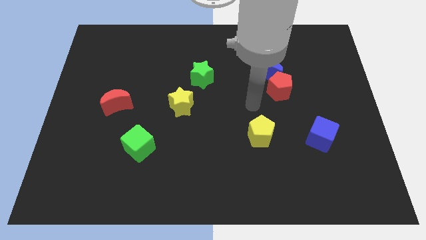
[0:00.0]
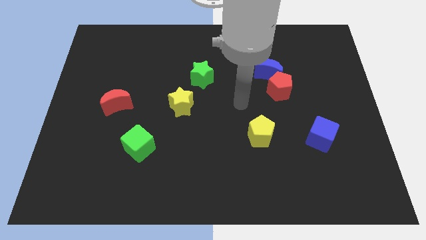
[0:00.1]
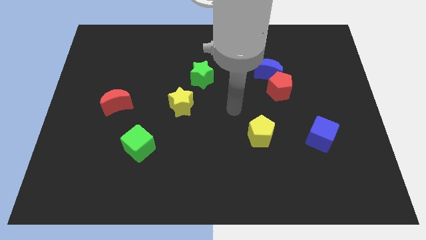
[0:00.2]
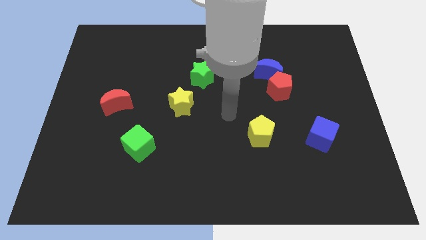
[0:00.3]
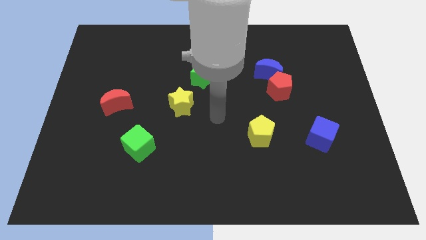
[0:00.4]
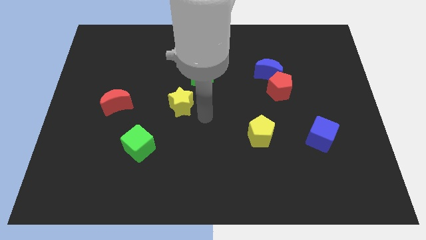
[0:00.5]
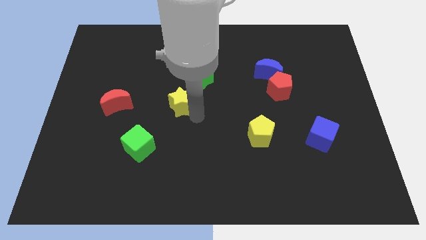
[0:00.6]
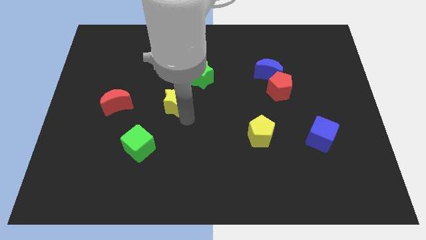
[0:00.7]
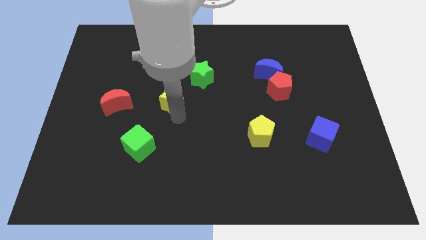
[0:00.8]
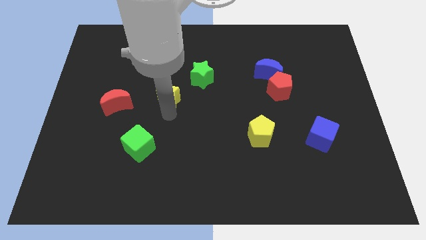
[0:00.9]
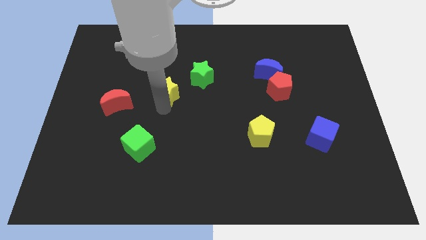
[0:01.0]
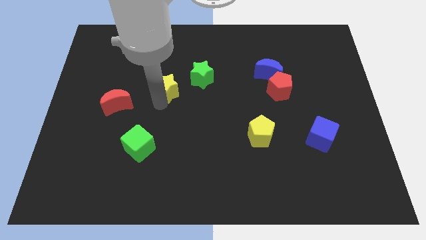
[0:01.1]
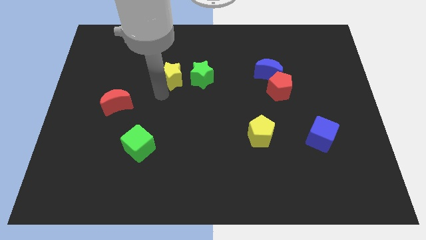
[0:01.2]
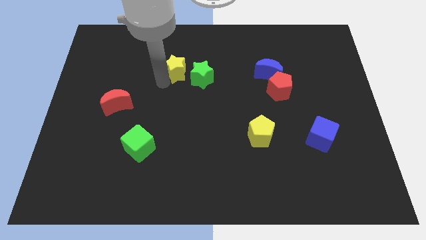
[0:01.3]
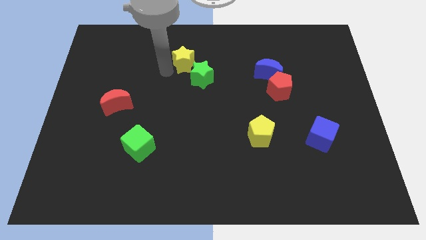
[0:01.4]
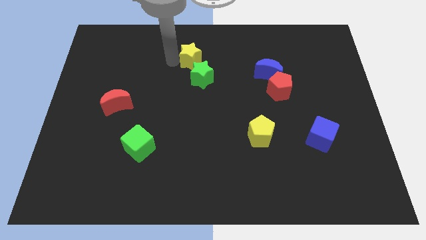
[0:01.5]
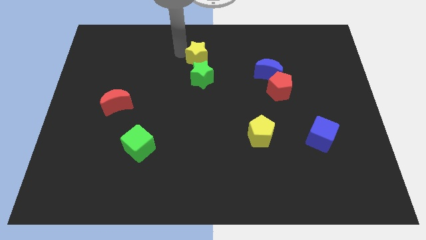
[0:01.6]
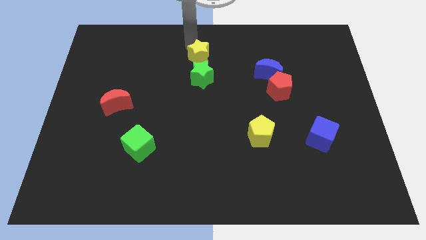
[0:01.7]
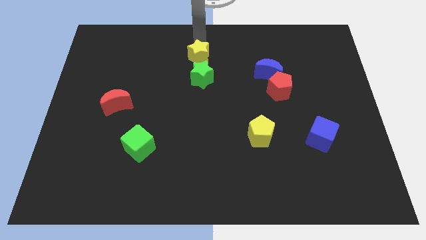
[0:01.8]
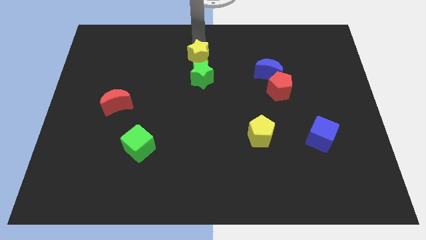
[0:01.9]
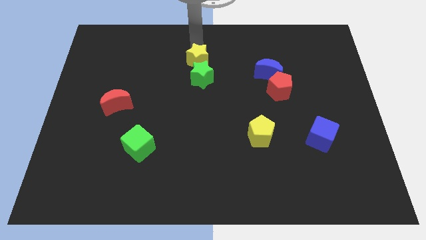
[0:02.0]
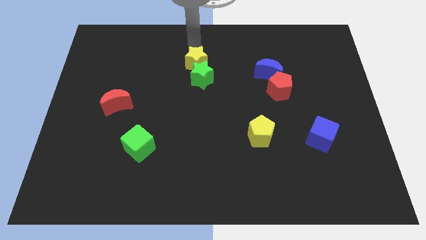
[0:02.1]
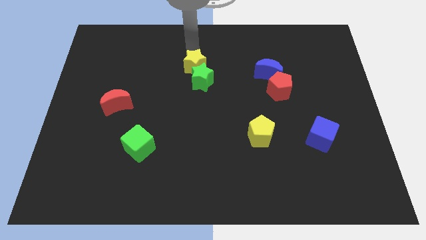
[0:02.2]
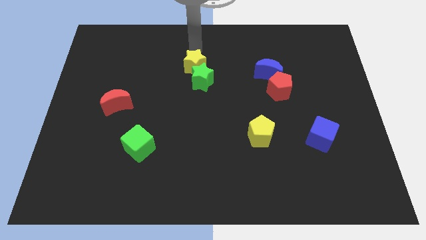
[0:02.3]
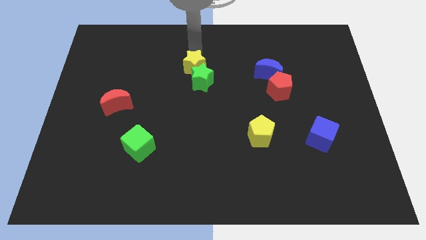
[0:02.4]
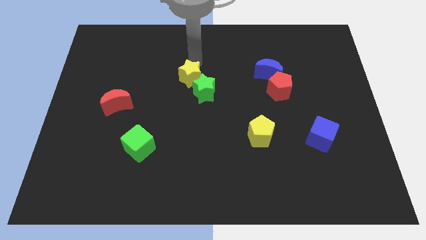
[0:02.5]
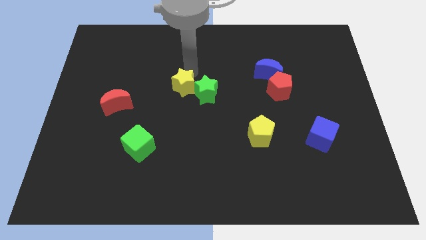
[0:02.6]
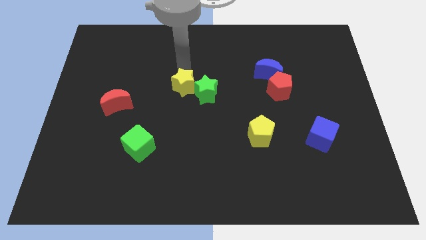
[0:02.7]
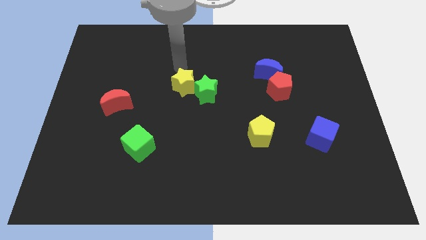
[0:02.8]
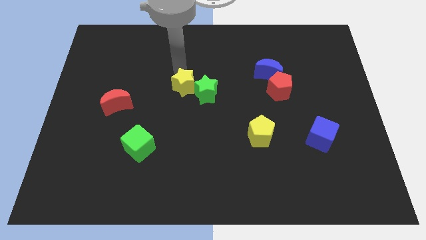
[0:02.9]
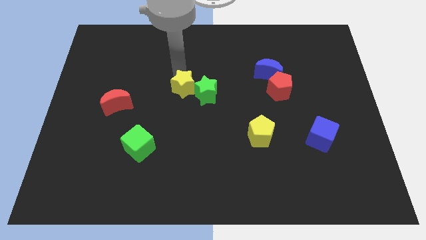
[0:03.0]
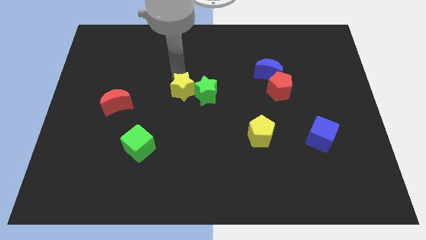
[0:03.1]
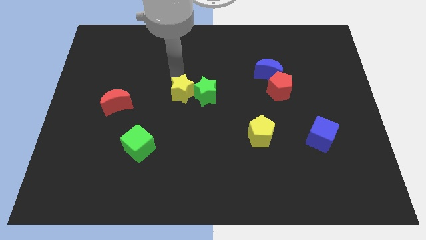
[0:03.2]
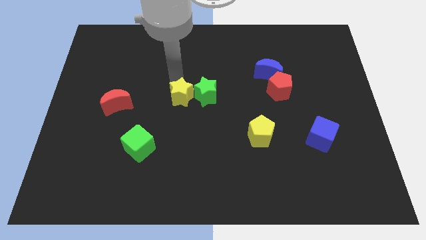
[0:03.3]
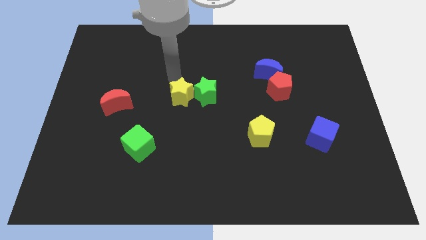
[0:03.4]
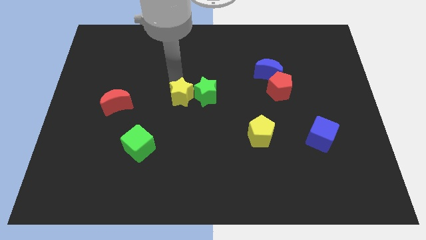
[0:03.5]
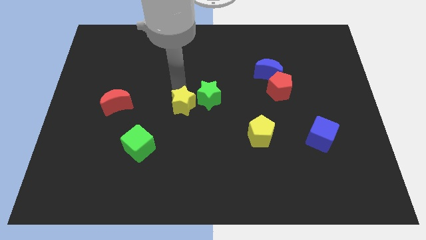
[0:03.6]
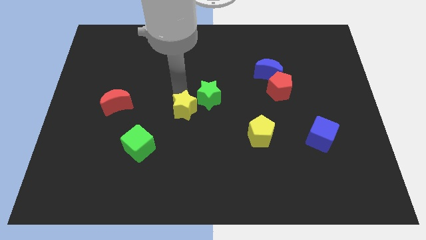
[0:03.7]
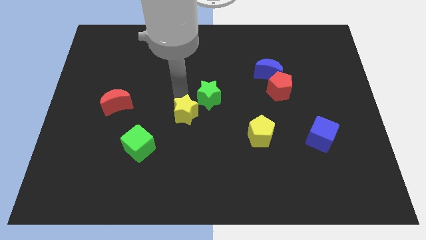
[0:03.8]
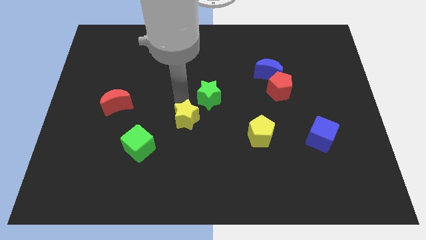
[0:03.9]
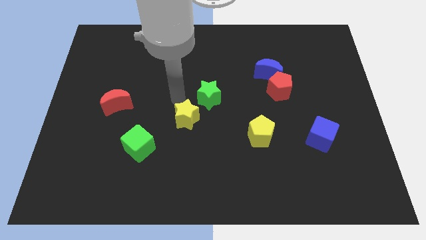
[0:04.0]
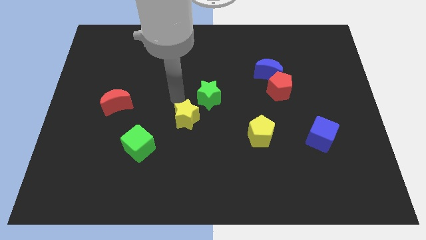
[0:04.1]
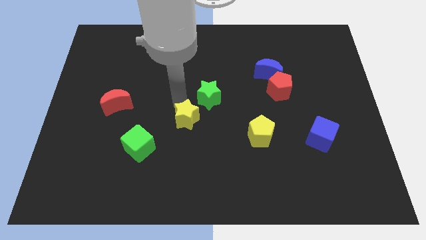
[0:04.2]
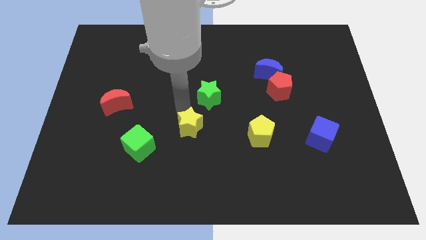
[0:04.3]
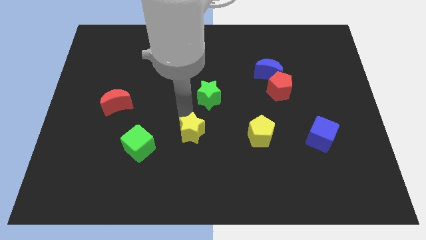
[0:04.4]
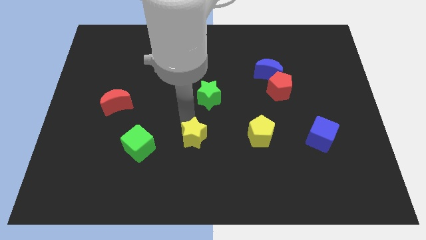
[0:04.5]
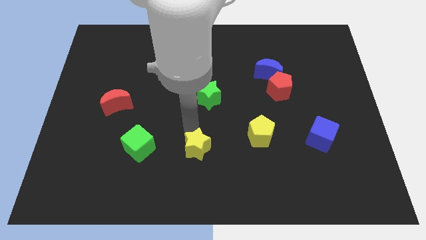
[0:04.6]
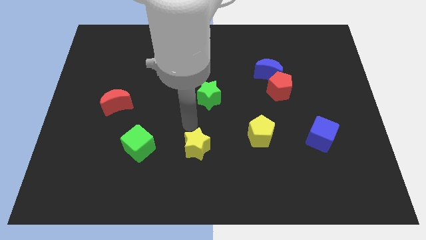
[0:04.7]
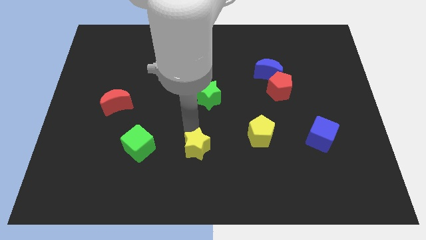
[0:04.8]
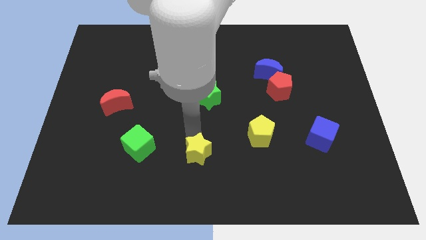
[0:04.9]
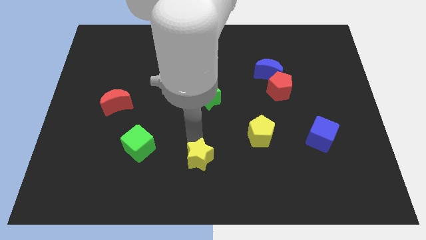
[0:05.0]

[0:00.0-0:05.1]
slide the yellow star to the bottom side

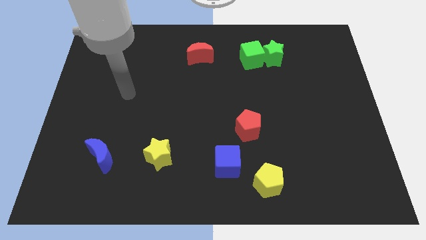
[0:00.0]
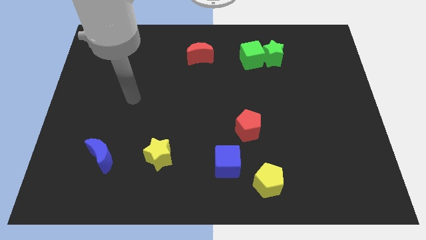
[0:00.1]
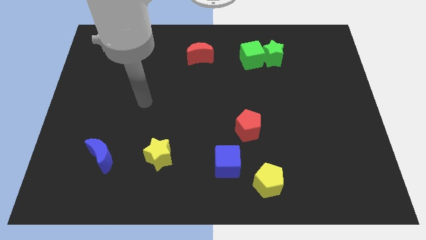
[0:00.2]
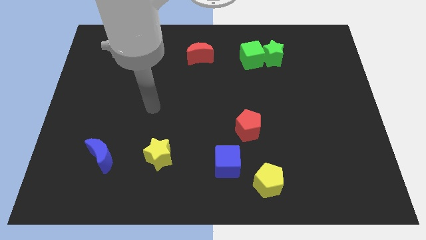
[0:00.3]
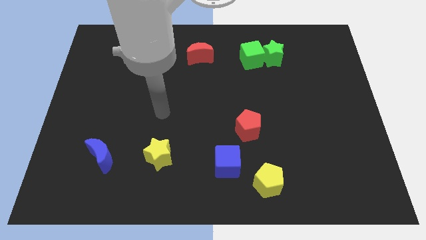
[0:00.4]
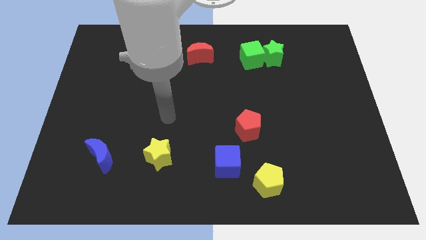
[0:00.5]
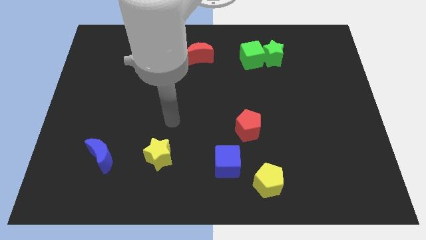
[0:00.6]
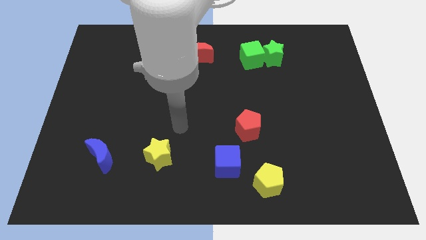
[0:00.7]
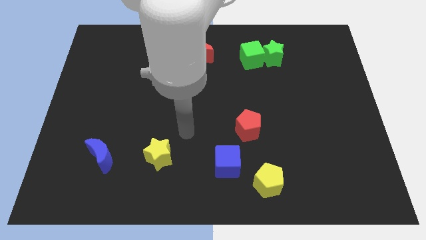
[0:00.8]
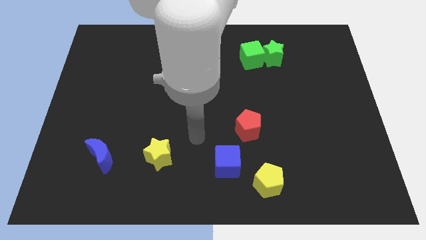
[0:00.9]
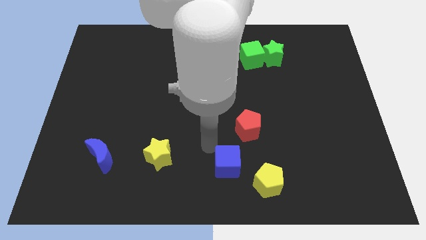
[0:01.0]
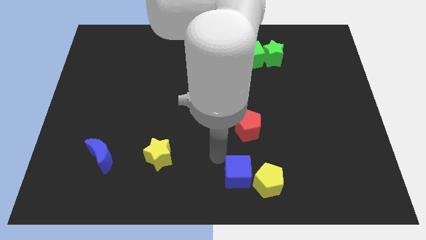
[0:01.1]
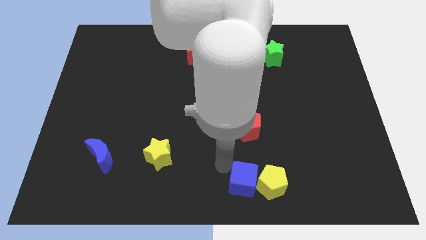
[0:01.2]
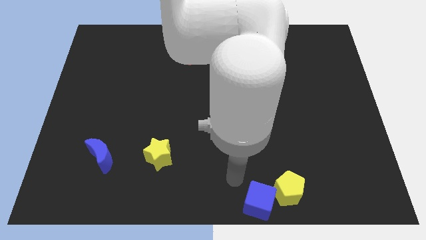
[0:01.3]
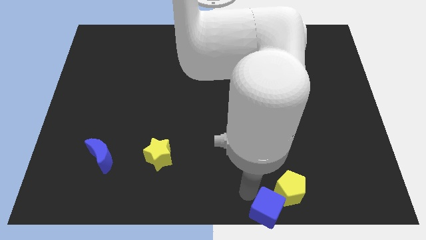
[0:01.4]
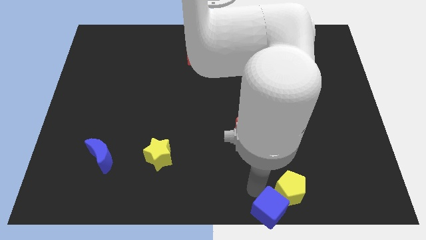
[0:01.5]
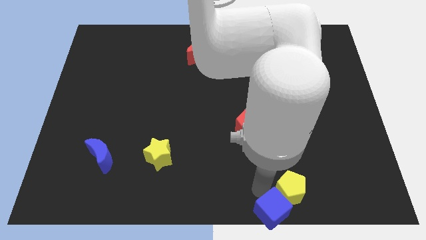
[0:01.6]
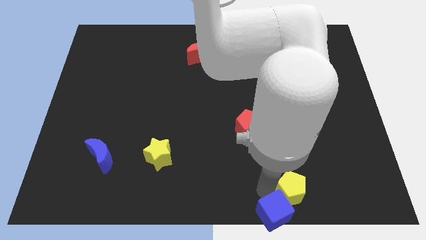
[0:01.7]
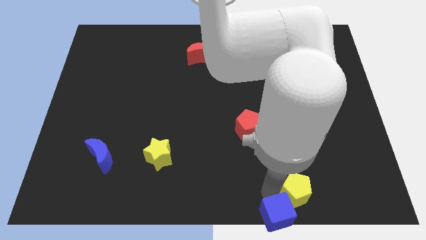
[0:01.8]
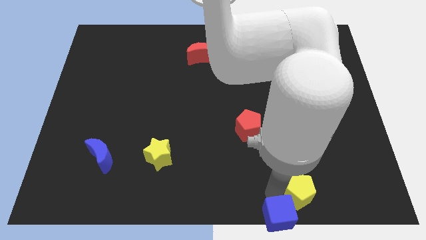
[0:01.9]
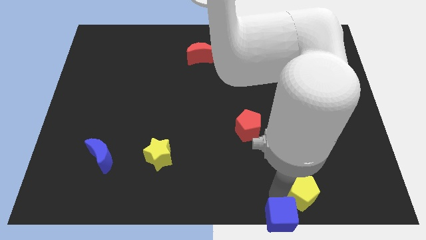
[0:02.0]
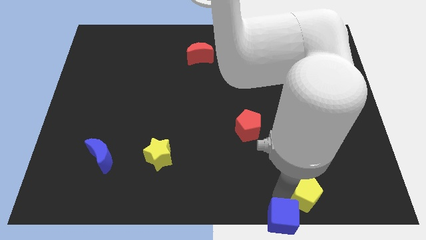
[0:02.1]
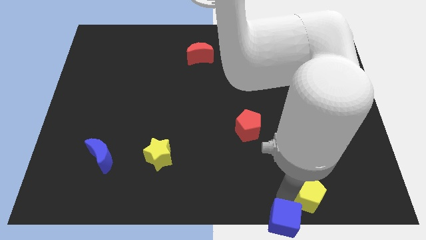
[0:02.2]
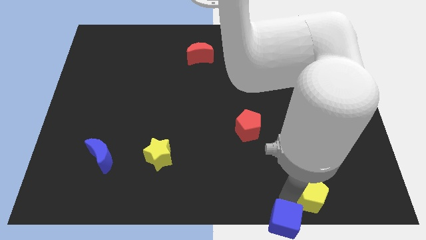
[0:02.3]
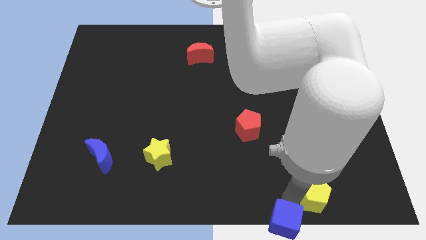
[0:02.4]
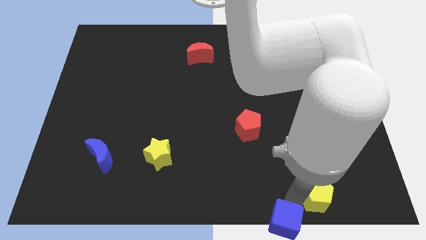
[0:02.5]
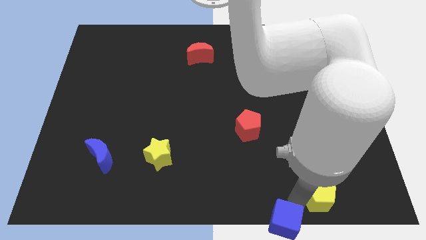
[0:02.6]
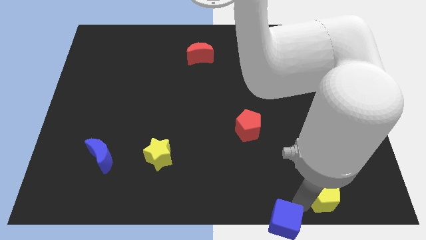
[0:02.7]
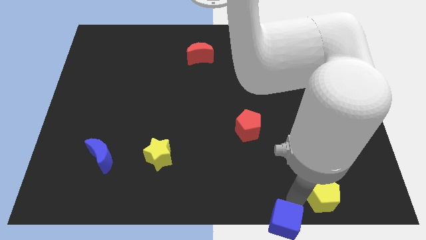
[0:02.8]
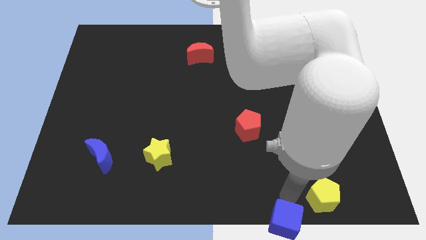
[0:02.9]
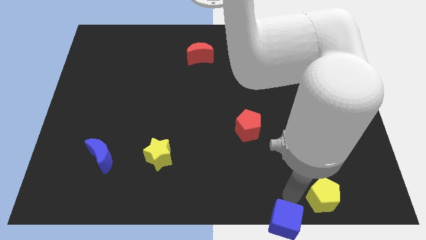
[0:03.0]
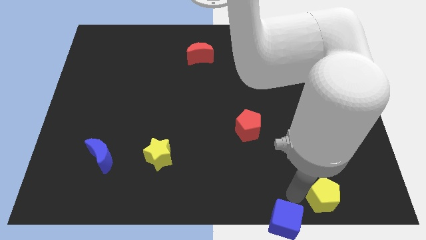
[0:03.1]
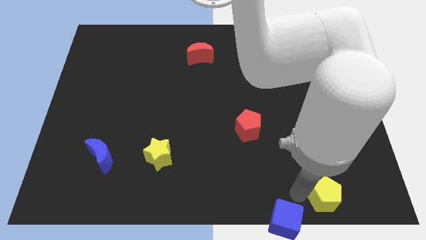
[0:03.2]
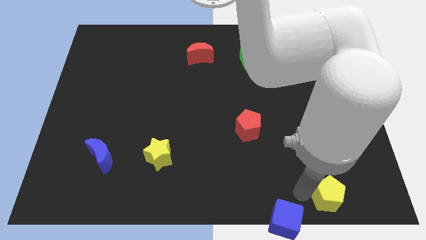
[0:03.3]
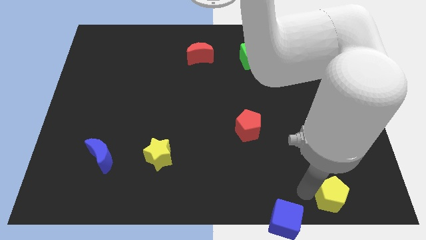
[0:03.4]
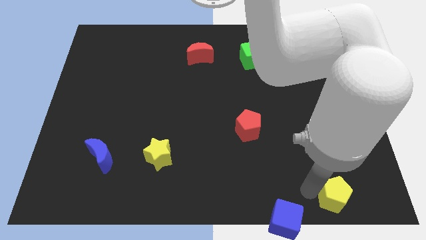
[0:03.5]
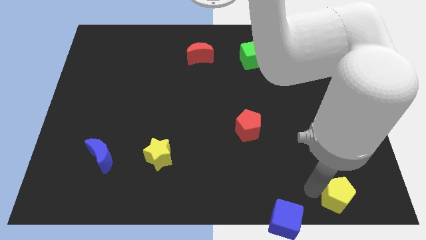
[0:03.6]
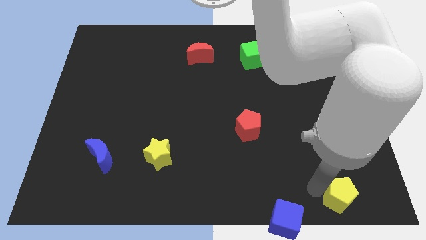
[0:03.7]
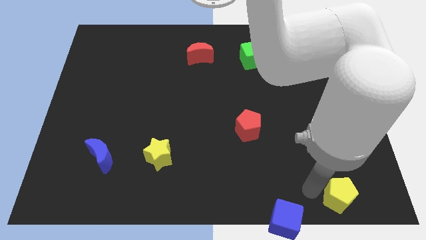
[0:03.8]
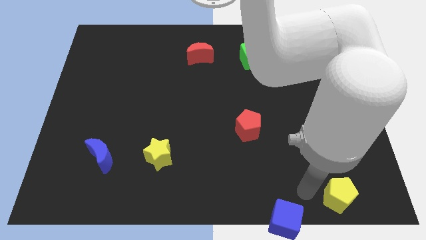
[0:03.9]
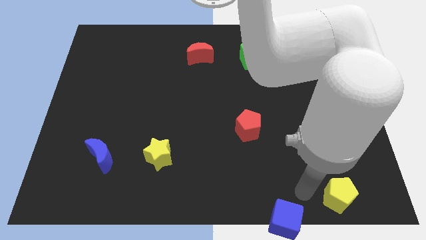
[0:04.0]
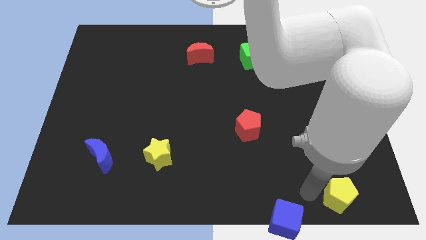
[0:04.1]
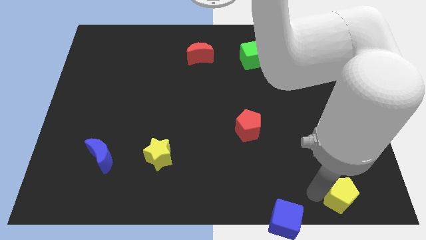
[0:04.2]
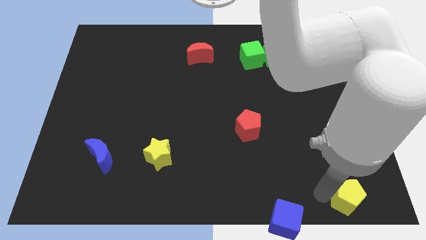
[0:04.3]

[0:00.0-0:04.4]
slide the yellow pentagon to the bottom right corner
